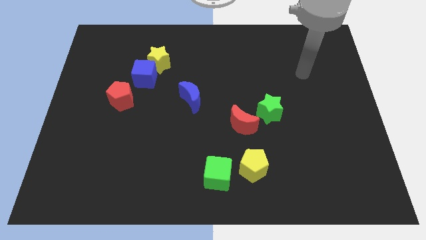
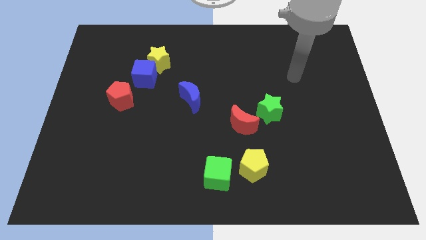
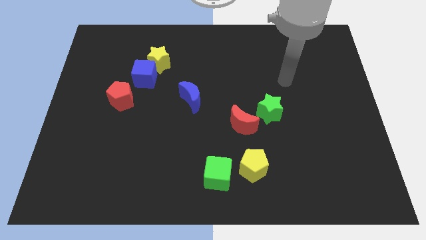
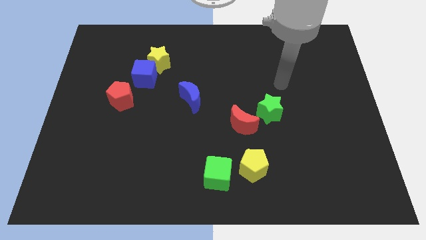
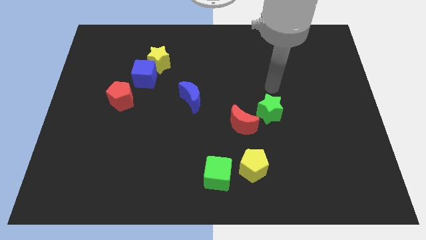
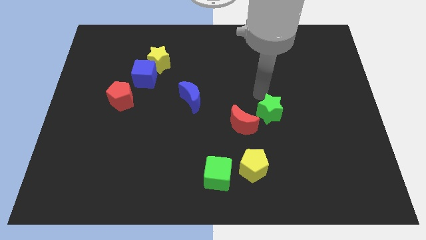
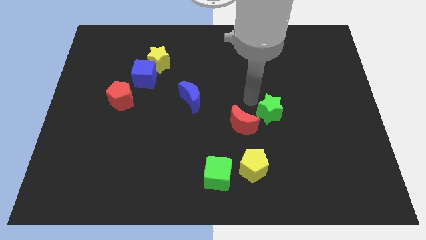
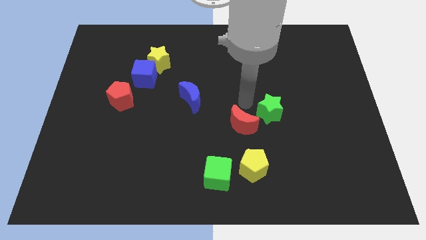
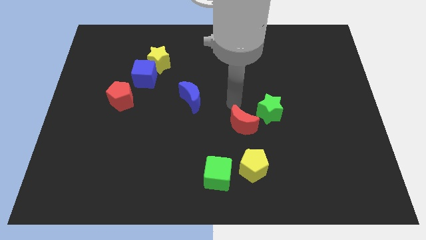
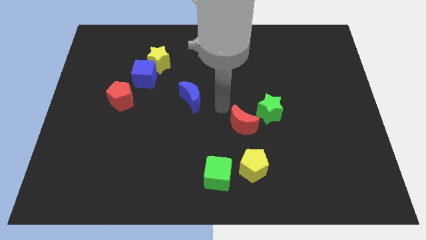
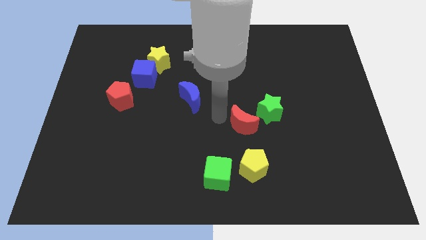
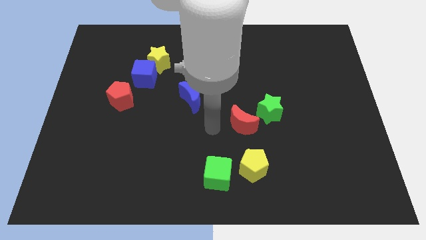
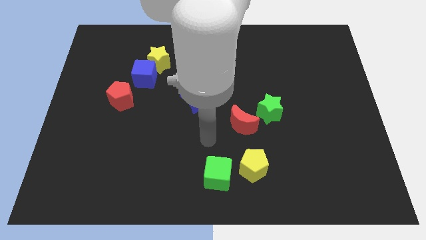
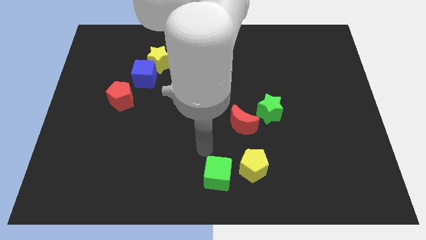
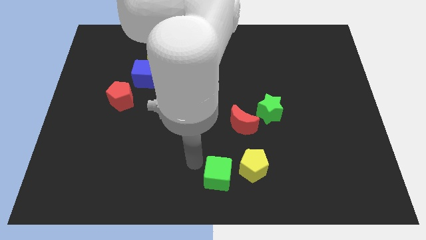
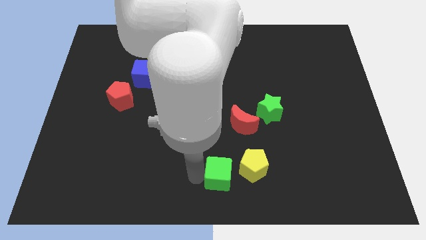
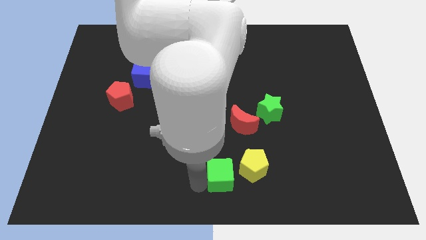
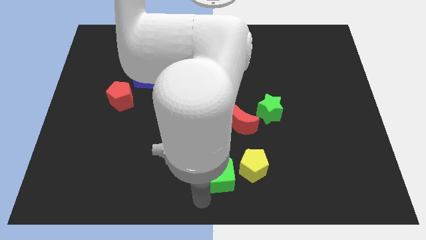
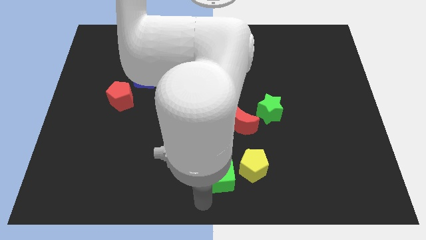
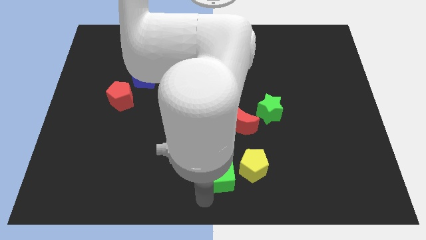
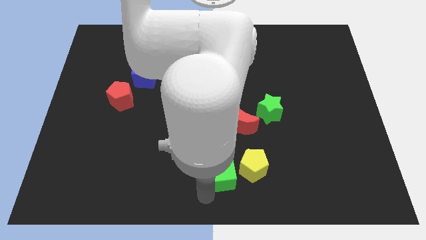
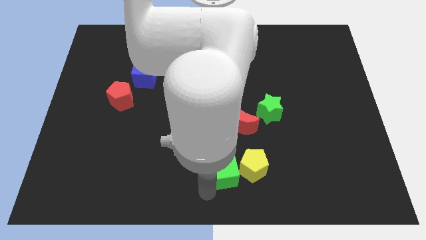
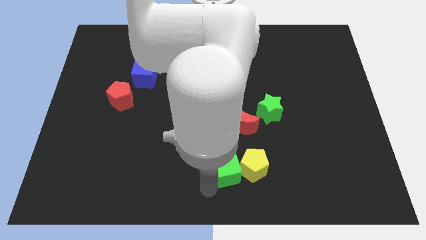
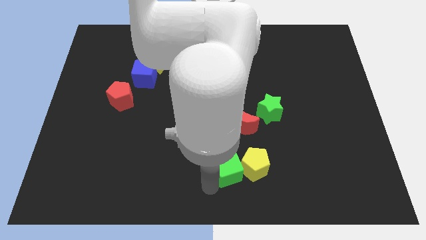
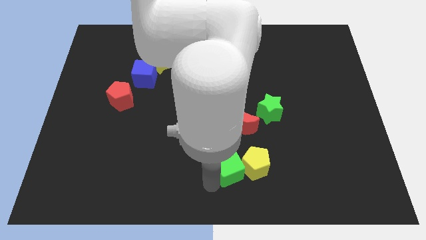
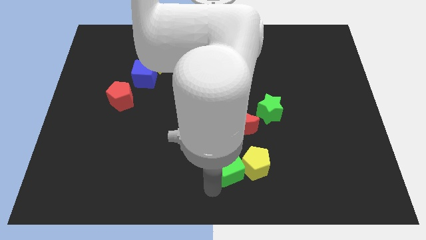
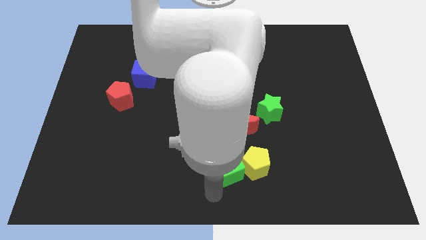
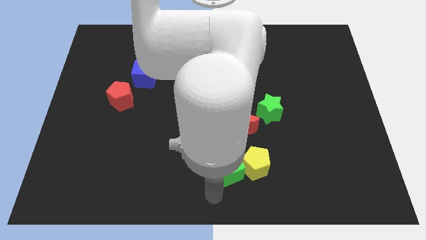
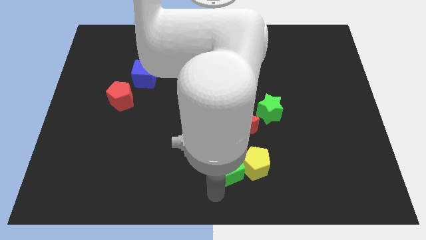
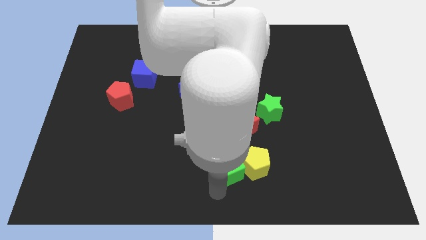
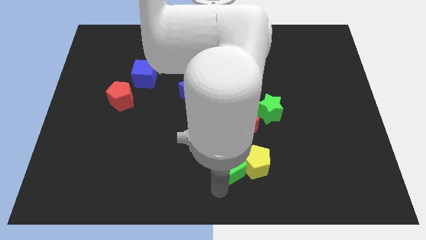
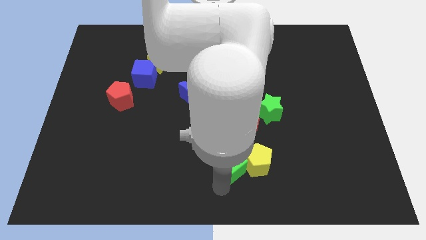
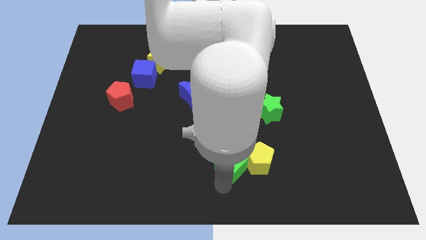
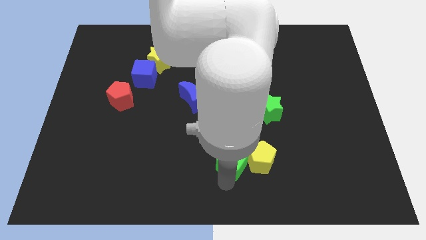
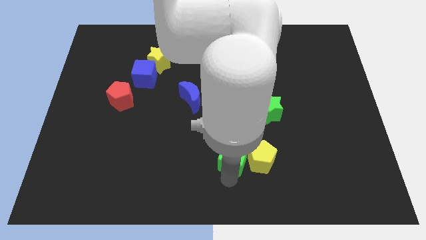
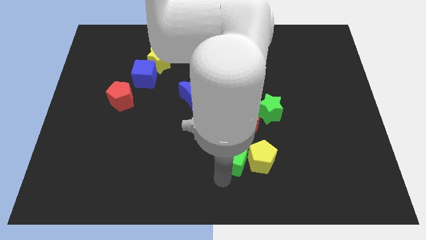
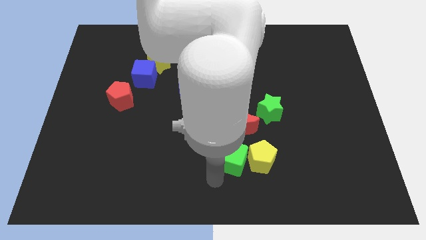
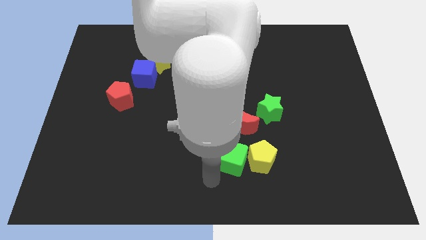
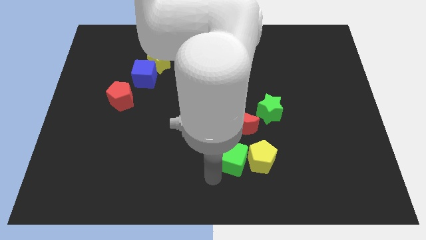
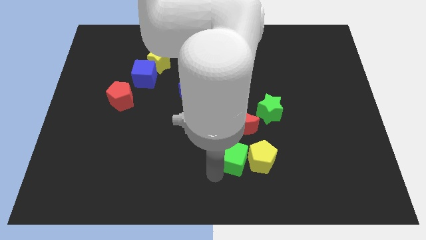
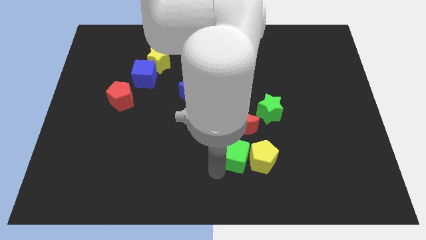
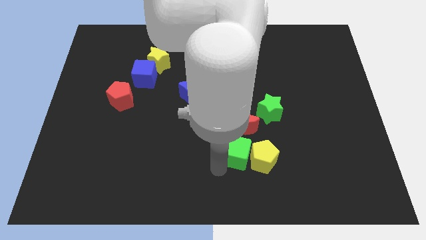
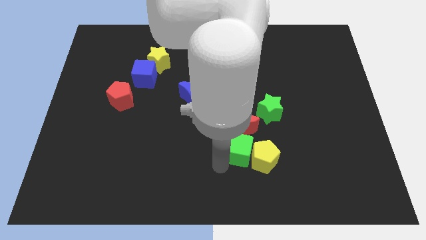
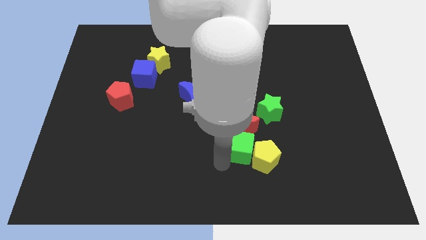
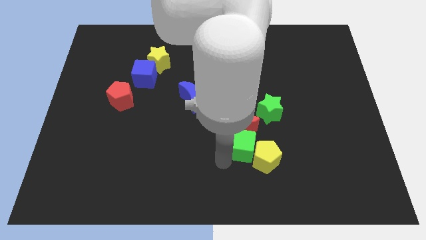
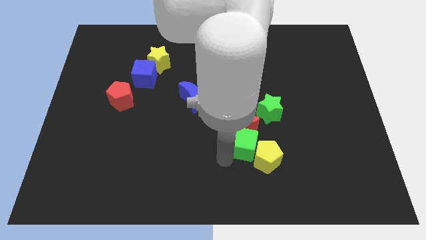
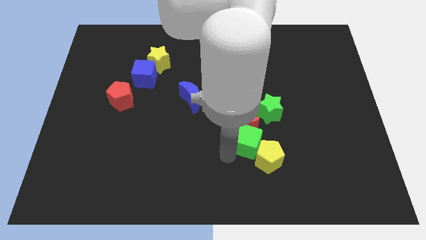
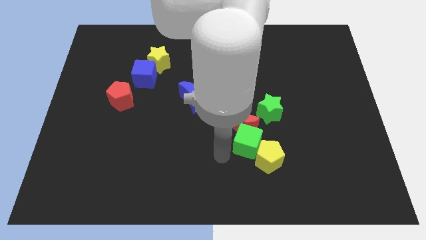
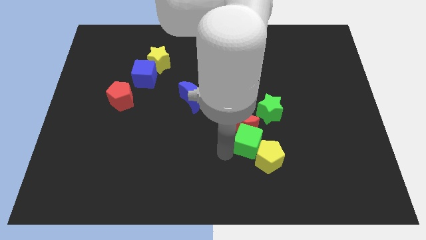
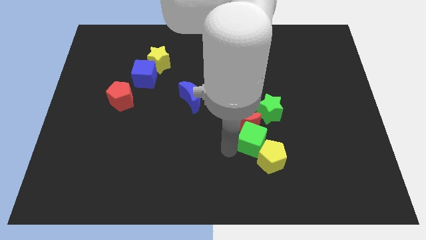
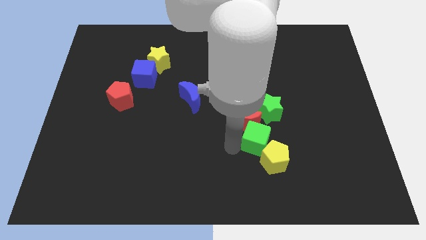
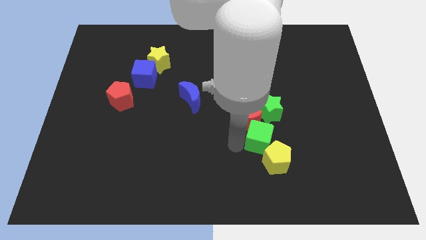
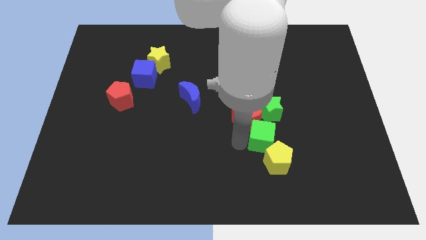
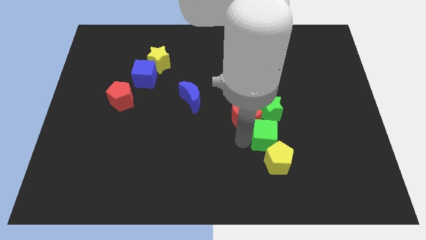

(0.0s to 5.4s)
push the green cube right of the red moon

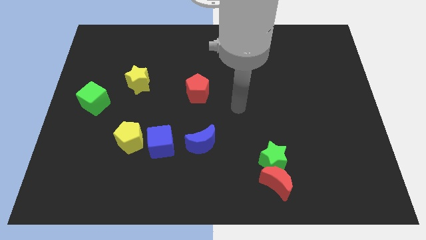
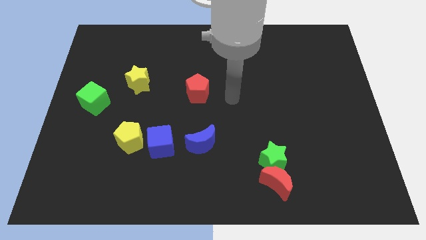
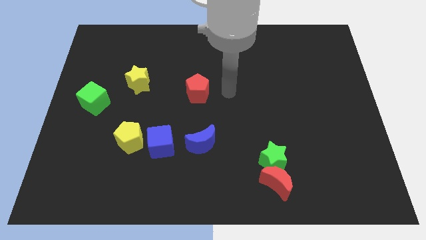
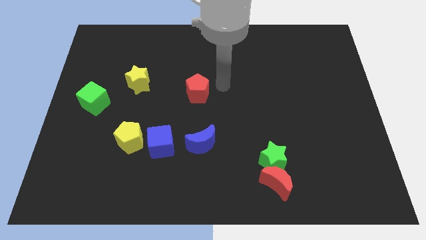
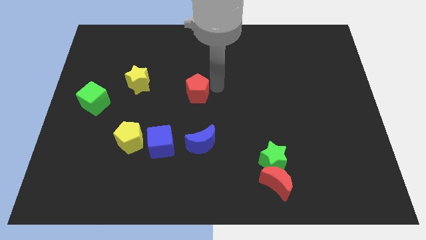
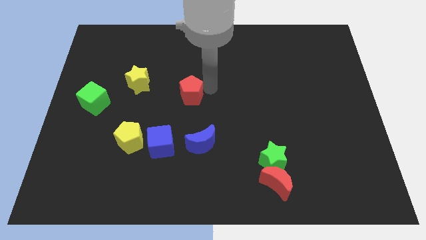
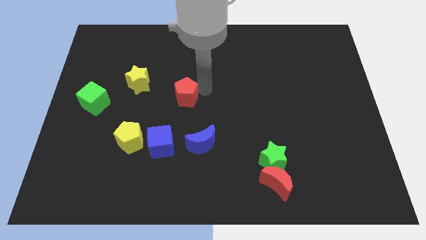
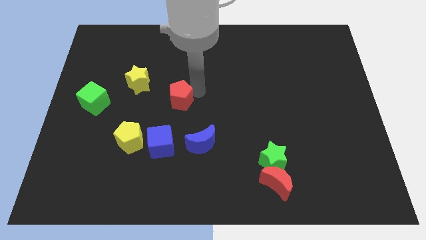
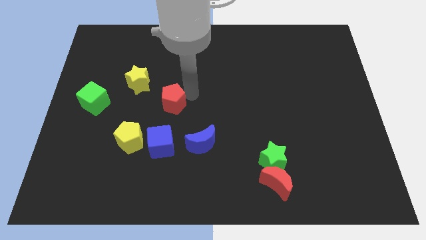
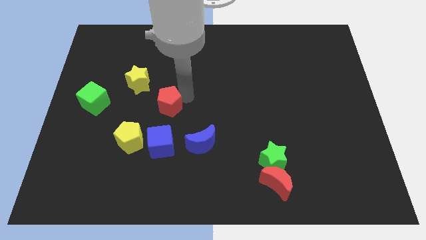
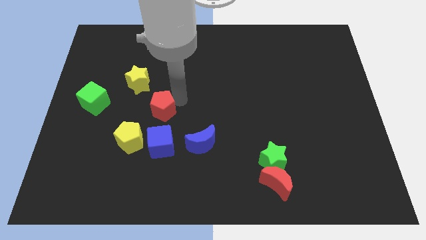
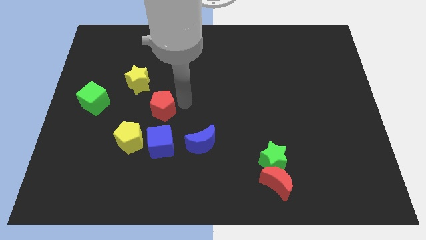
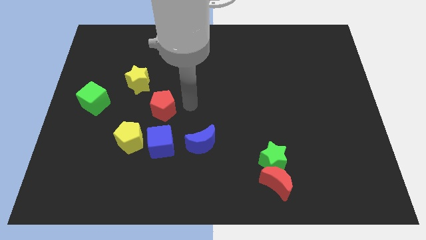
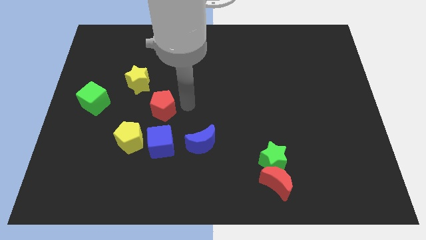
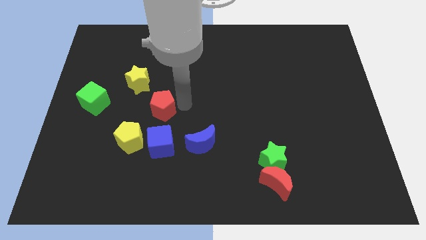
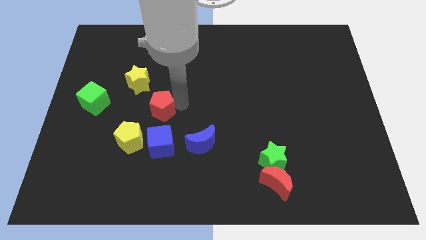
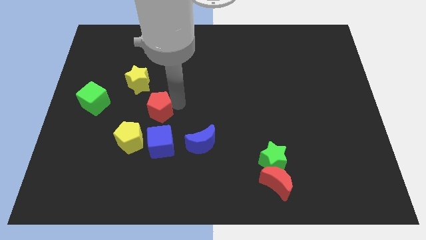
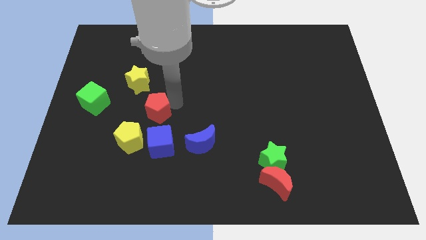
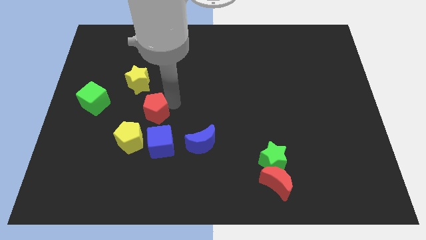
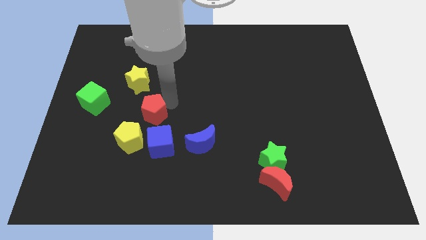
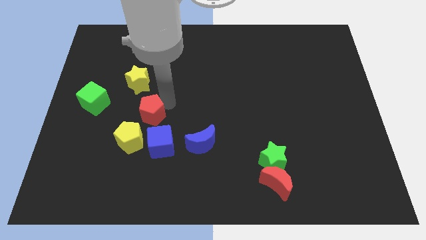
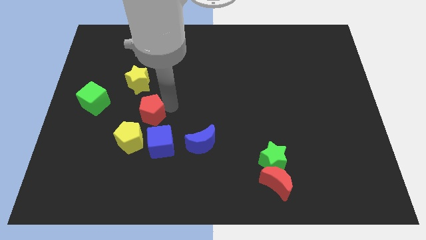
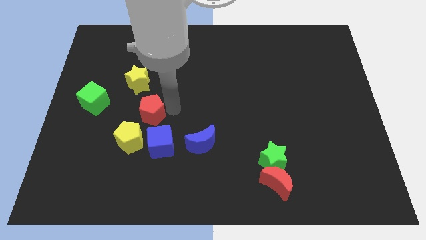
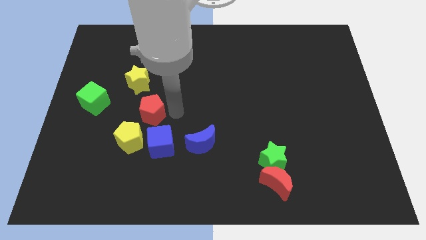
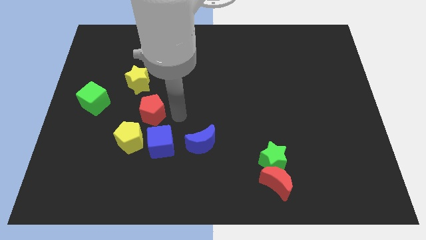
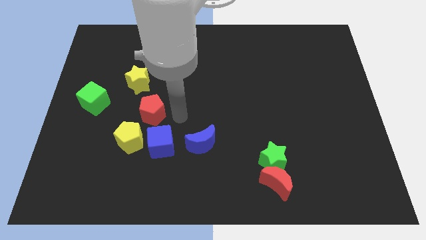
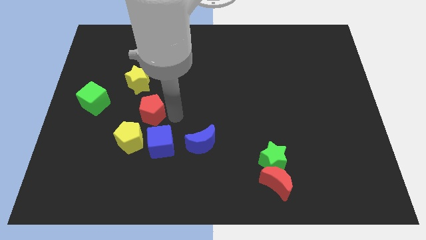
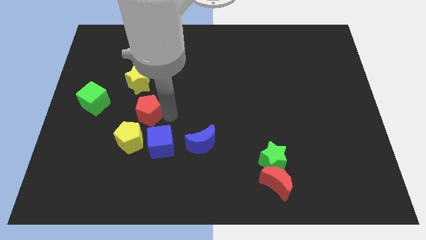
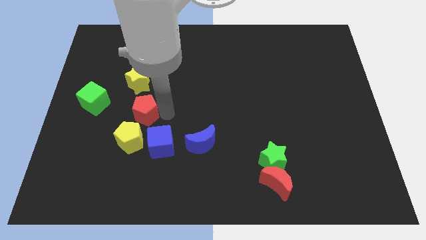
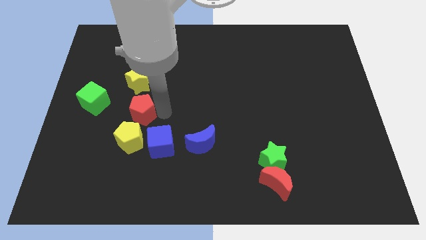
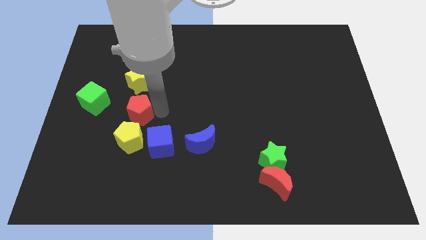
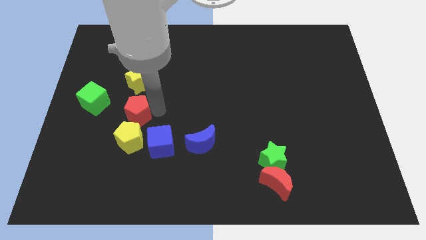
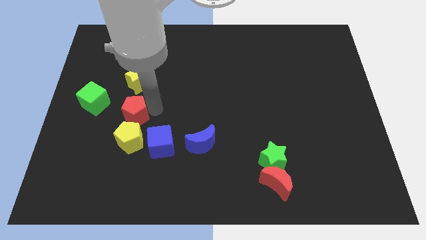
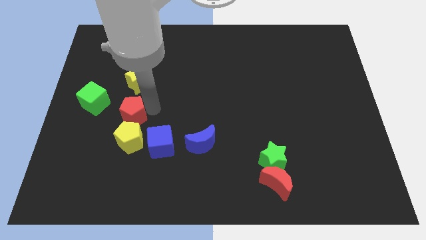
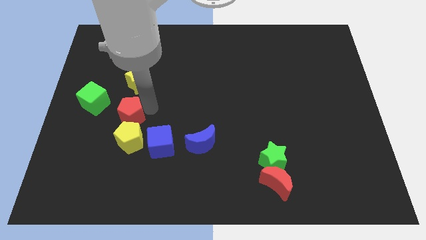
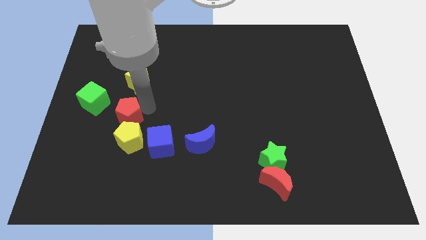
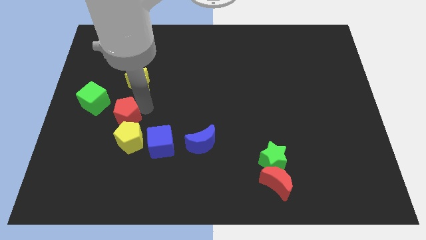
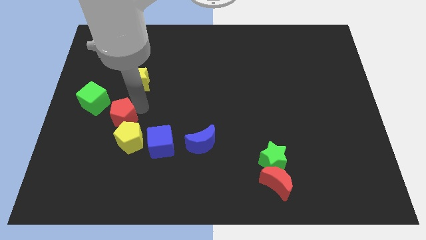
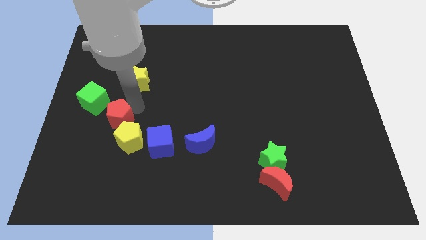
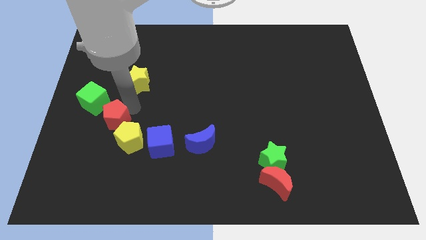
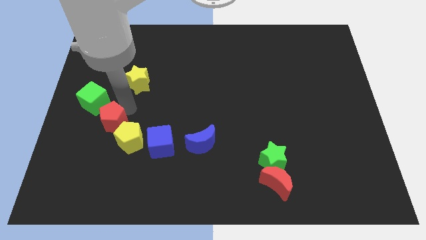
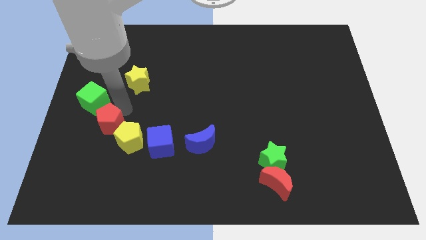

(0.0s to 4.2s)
put the red pentagon just left of the yellow pentagon
